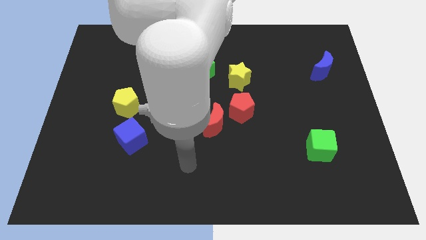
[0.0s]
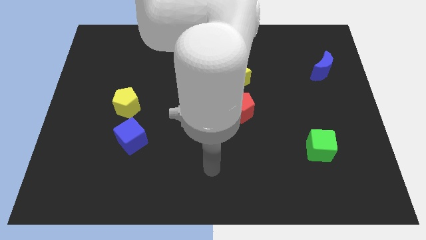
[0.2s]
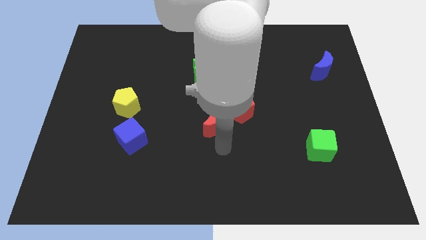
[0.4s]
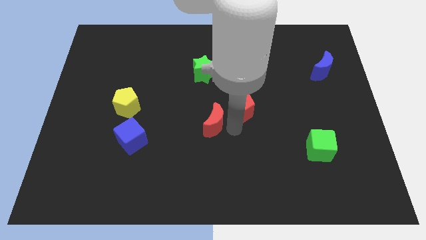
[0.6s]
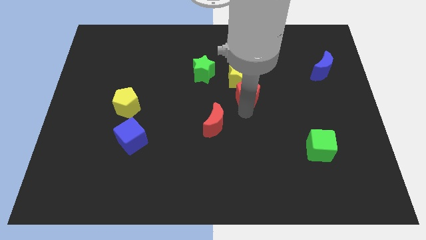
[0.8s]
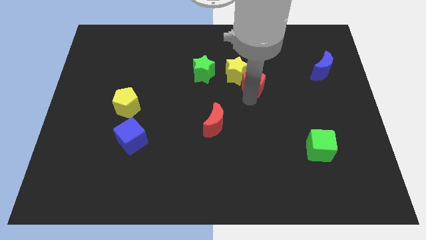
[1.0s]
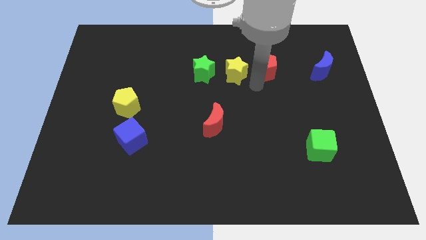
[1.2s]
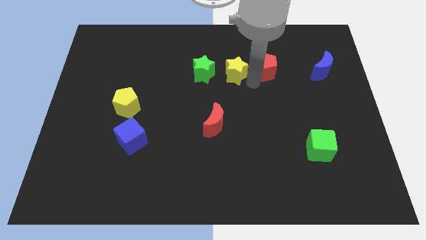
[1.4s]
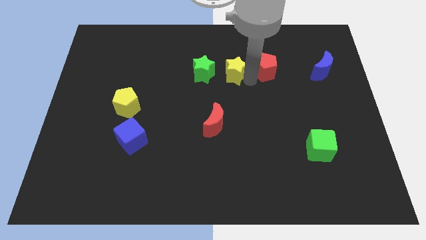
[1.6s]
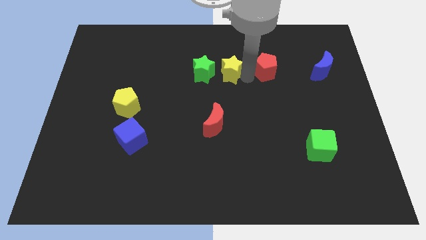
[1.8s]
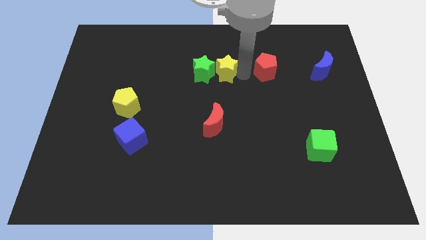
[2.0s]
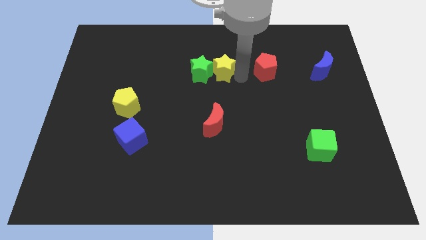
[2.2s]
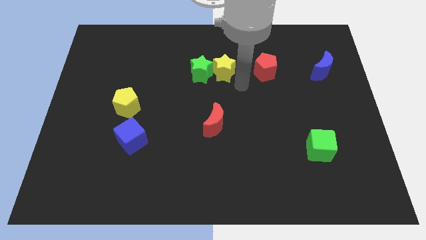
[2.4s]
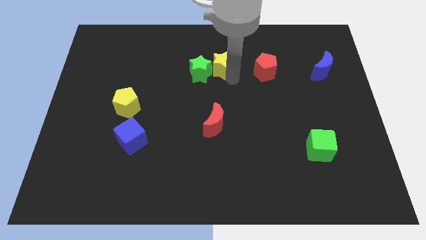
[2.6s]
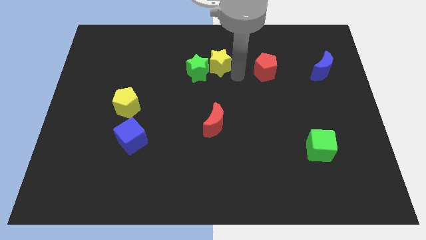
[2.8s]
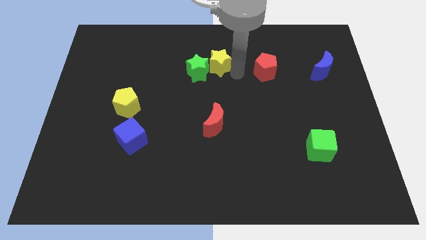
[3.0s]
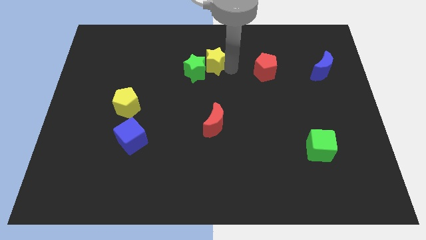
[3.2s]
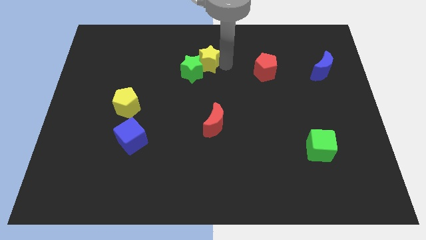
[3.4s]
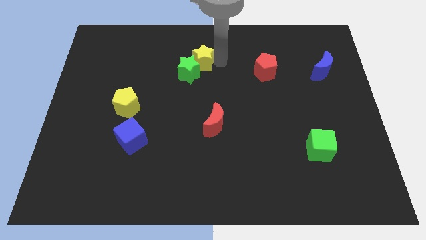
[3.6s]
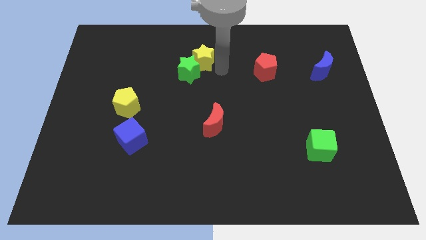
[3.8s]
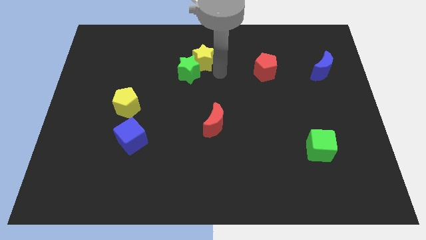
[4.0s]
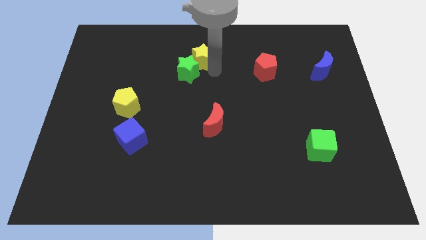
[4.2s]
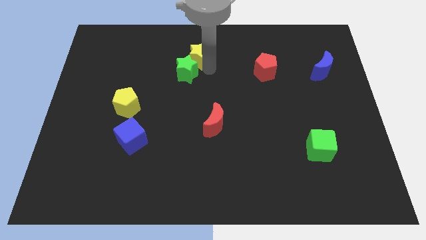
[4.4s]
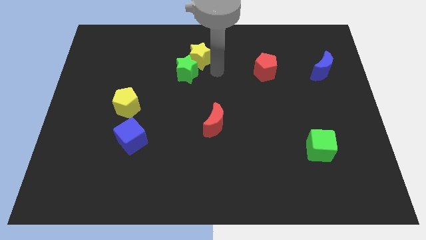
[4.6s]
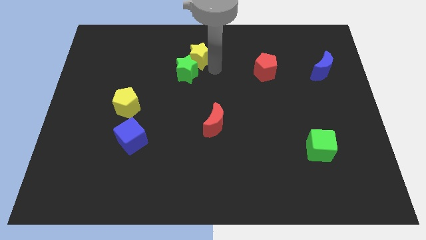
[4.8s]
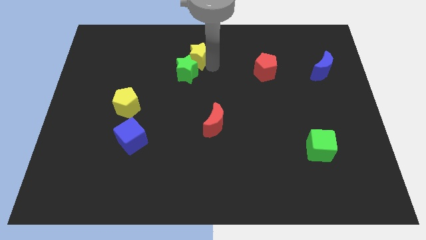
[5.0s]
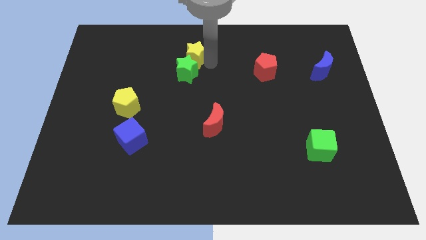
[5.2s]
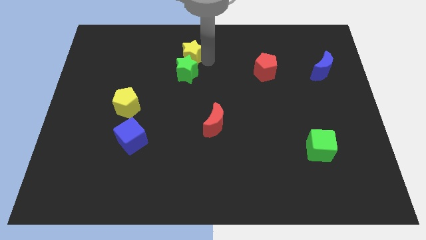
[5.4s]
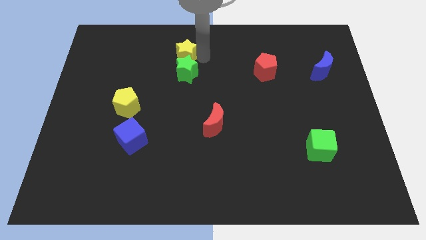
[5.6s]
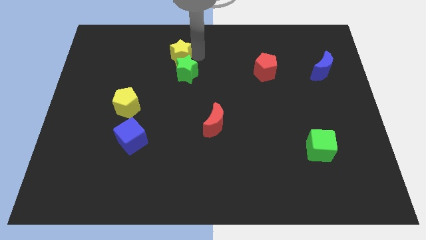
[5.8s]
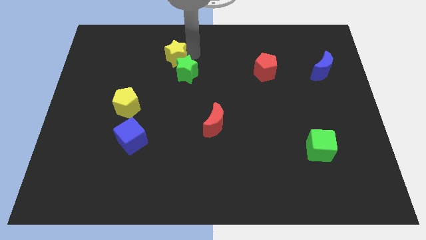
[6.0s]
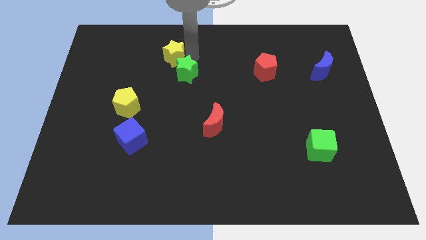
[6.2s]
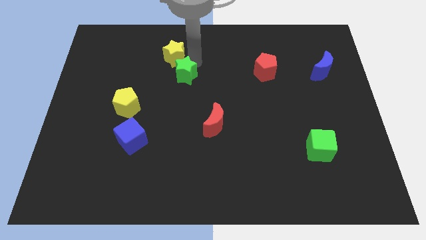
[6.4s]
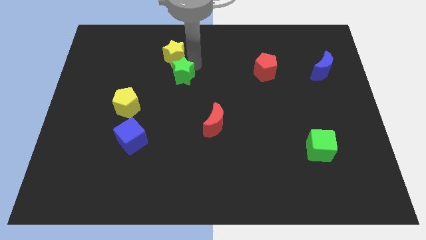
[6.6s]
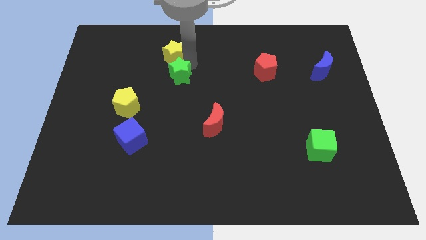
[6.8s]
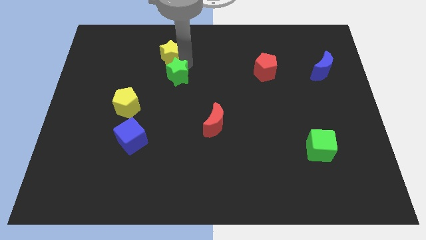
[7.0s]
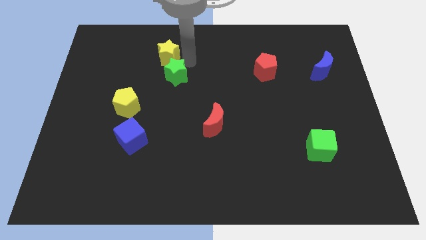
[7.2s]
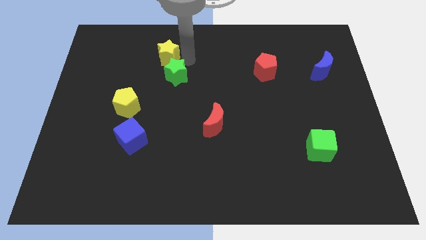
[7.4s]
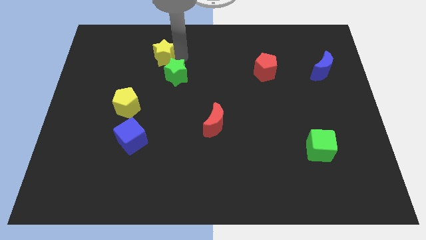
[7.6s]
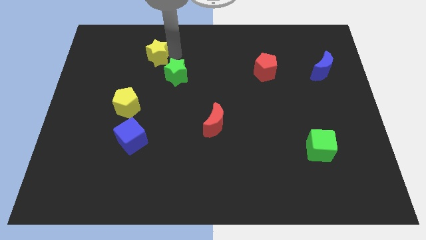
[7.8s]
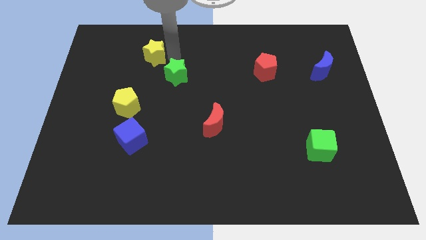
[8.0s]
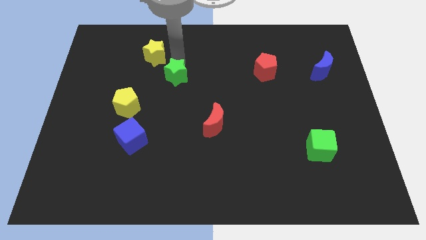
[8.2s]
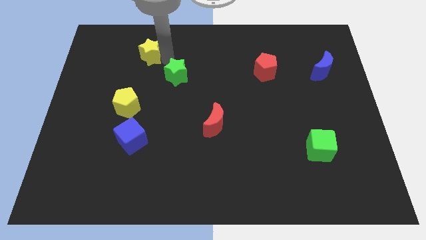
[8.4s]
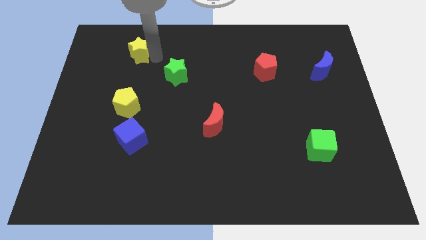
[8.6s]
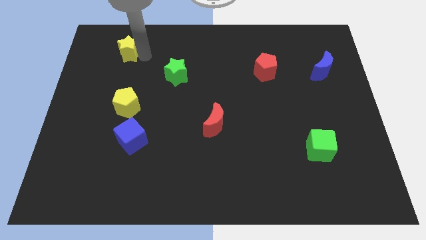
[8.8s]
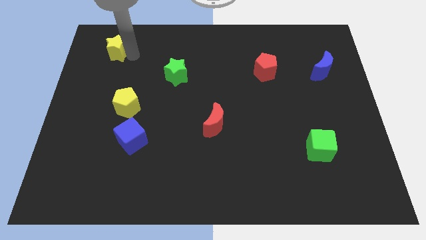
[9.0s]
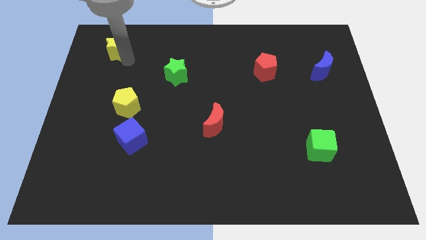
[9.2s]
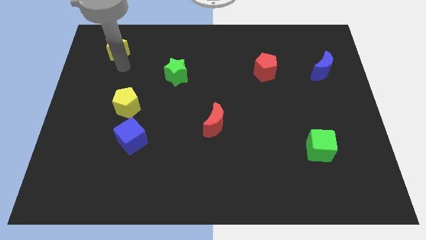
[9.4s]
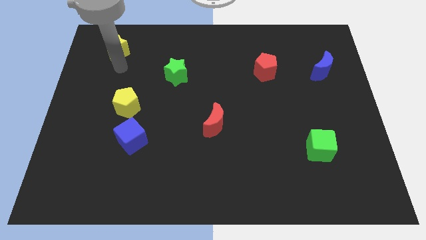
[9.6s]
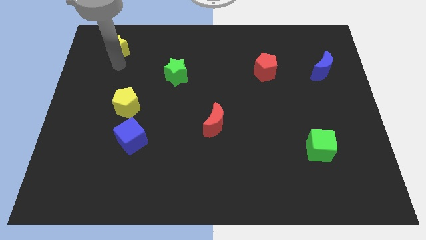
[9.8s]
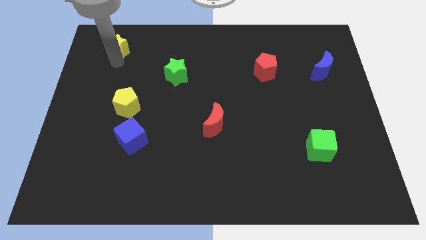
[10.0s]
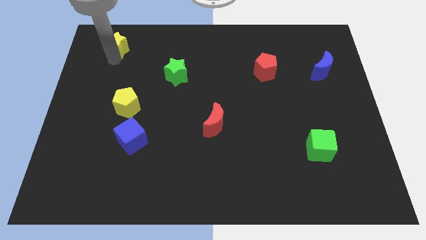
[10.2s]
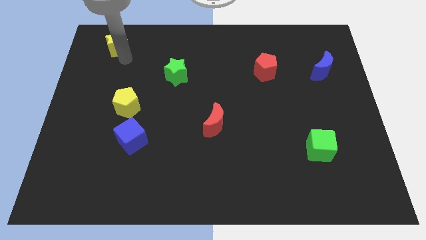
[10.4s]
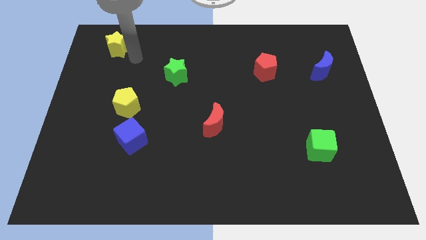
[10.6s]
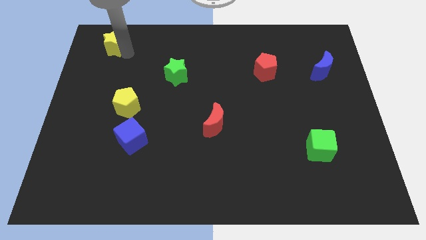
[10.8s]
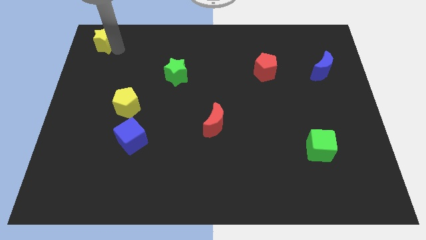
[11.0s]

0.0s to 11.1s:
slide the yellow star to the top left

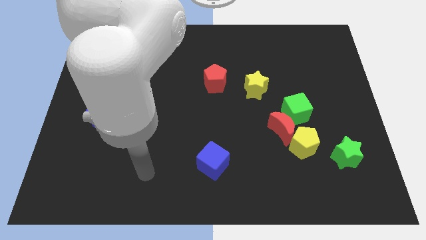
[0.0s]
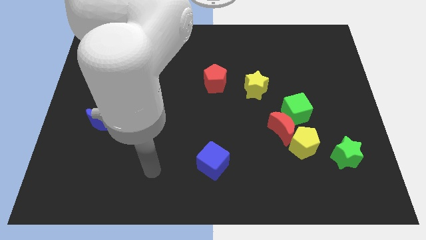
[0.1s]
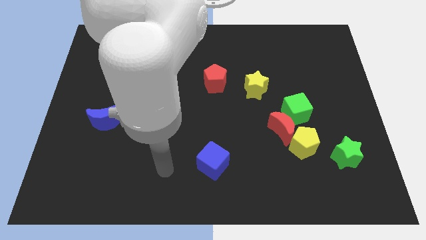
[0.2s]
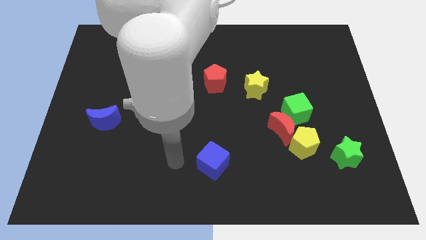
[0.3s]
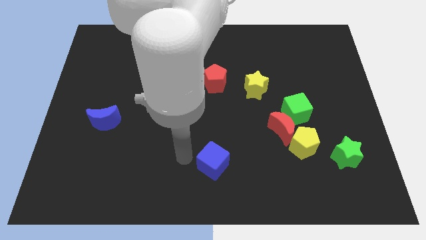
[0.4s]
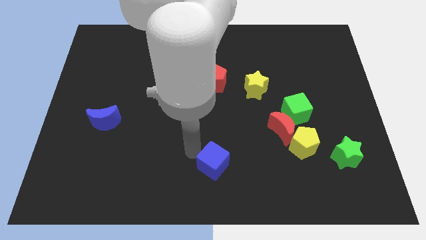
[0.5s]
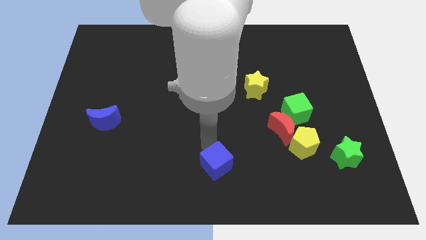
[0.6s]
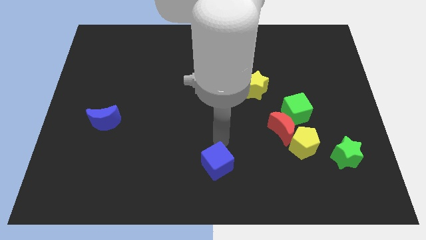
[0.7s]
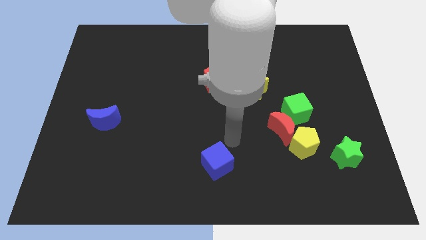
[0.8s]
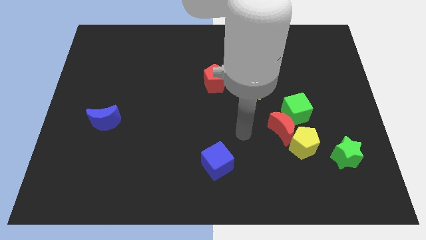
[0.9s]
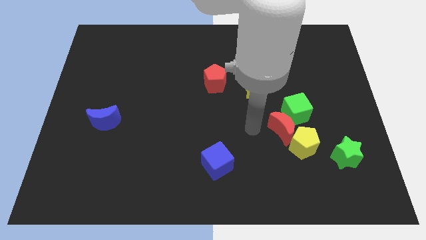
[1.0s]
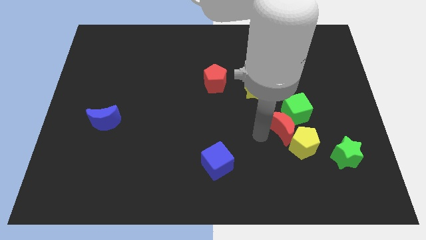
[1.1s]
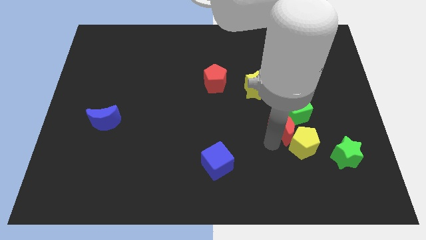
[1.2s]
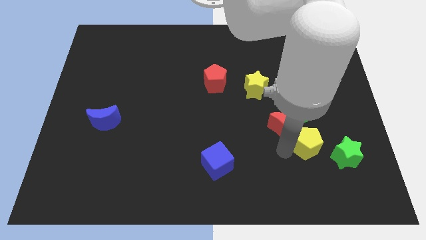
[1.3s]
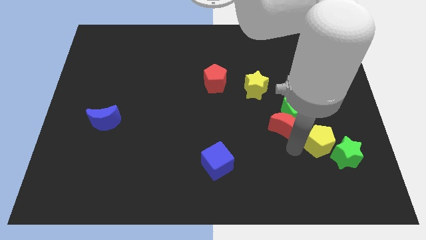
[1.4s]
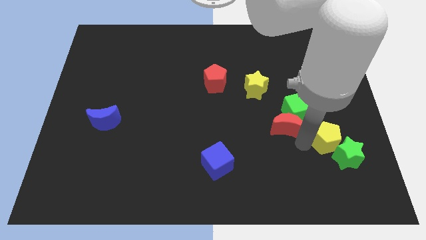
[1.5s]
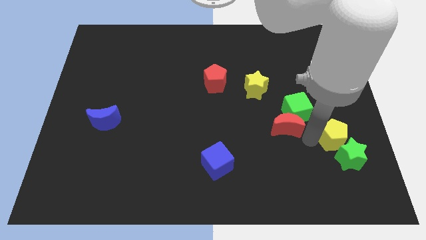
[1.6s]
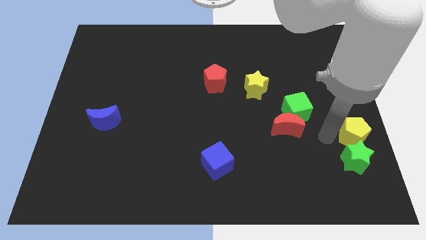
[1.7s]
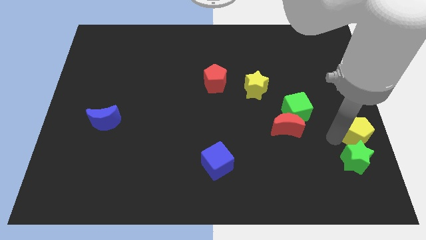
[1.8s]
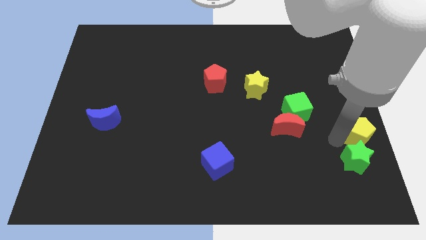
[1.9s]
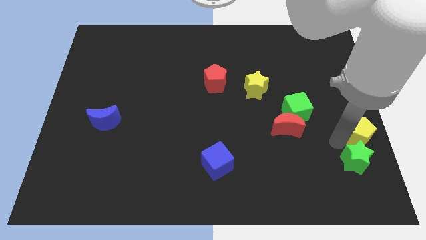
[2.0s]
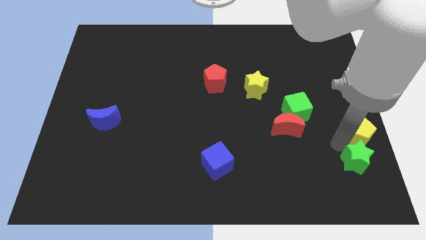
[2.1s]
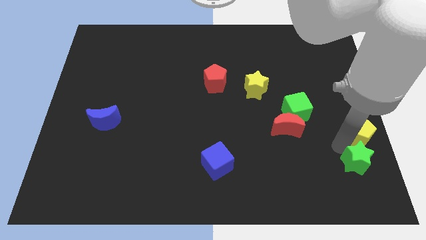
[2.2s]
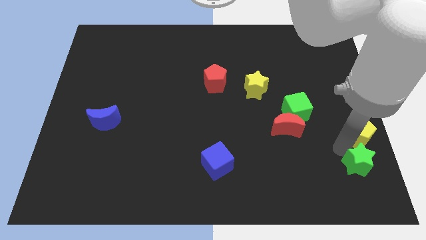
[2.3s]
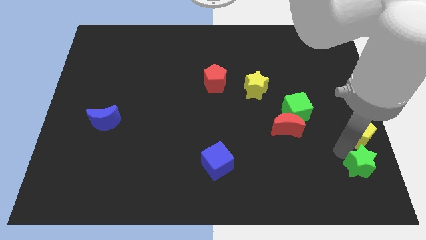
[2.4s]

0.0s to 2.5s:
slide the green star to the lower right corner

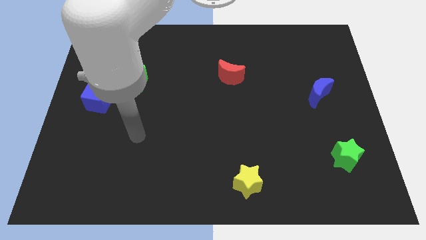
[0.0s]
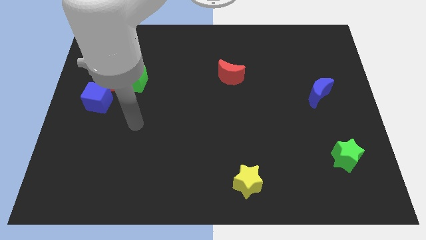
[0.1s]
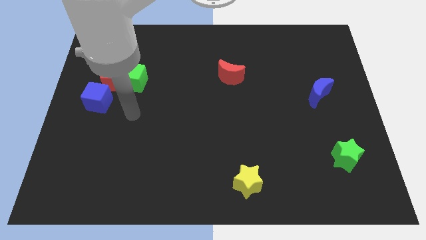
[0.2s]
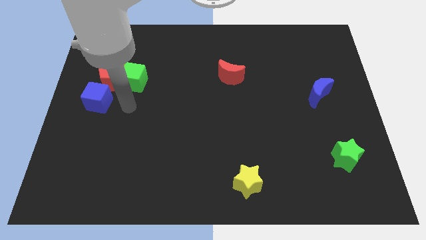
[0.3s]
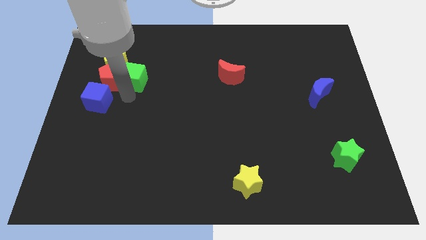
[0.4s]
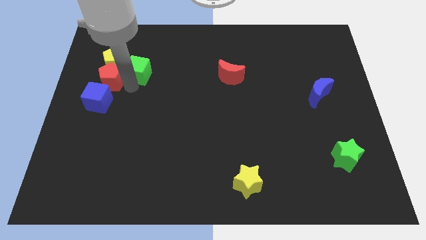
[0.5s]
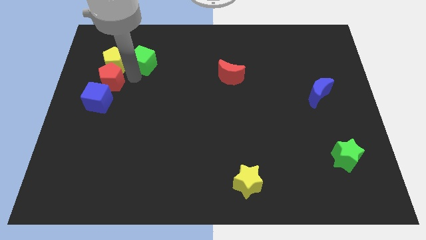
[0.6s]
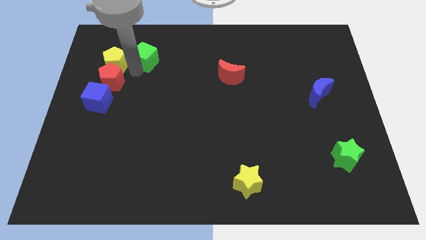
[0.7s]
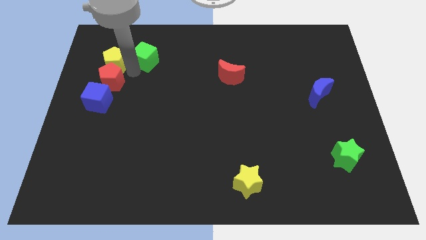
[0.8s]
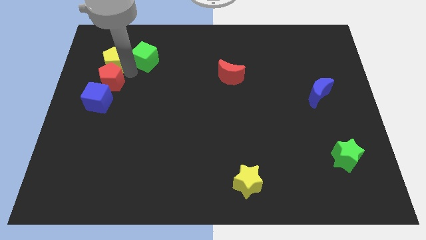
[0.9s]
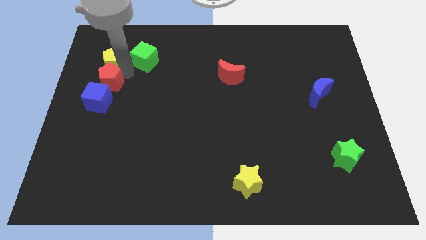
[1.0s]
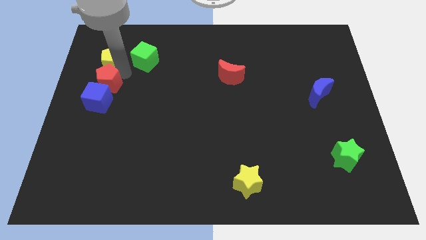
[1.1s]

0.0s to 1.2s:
put the red pentagon to the center left
